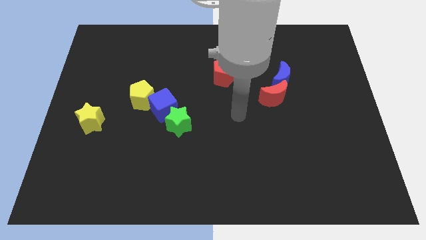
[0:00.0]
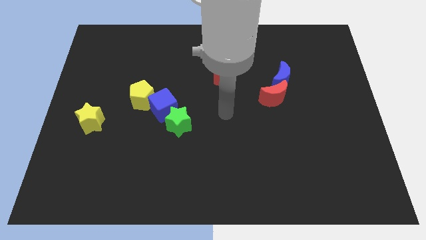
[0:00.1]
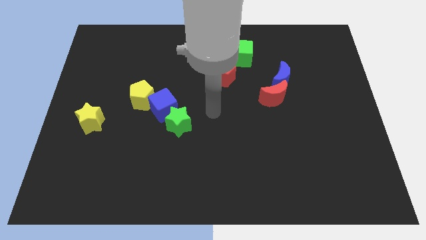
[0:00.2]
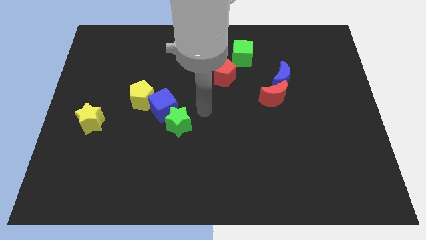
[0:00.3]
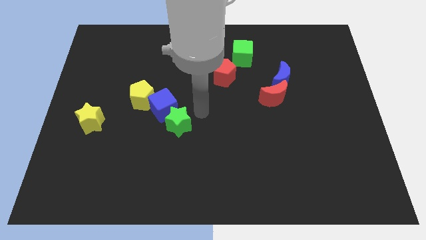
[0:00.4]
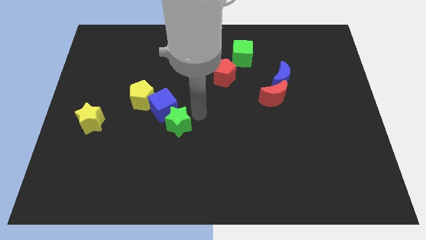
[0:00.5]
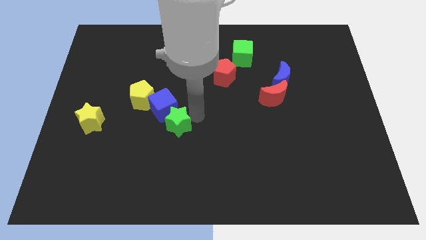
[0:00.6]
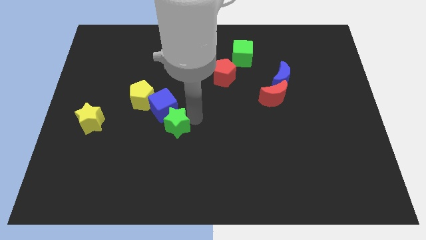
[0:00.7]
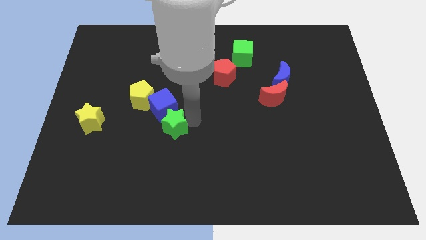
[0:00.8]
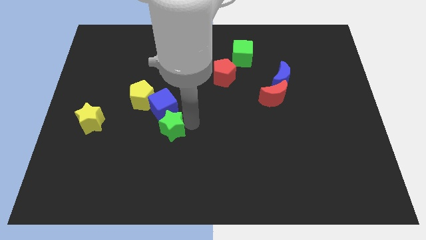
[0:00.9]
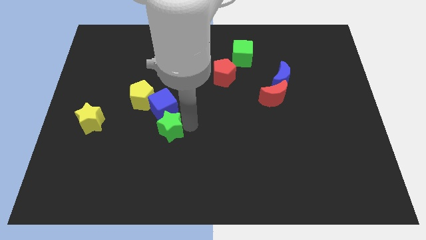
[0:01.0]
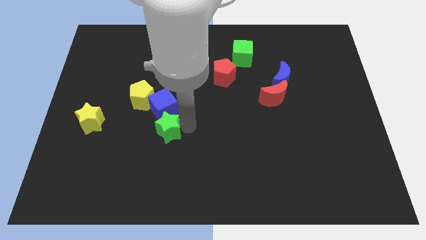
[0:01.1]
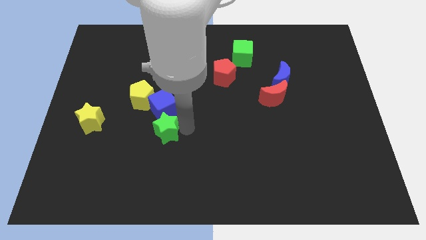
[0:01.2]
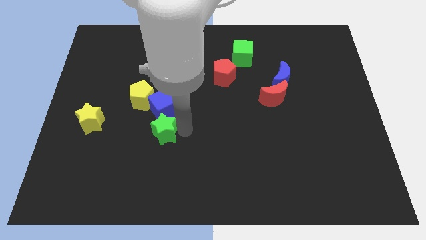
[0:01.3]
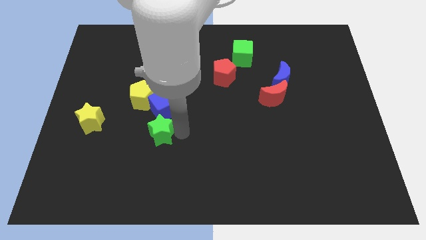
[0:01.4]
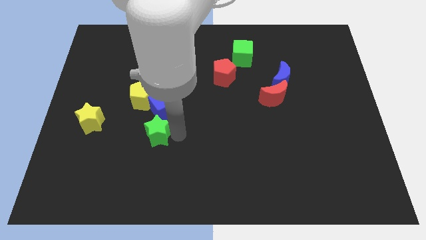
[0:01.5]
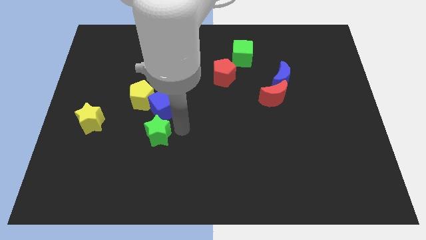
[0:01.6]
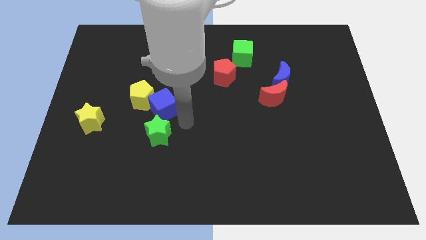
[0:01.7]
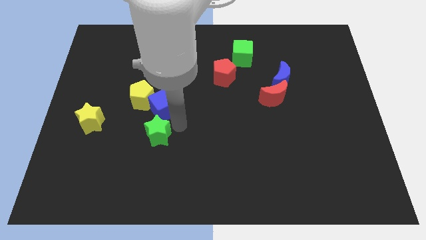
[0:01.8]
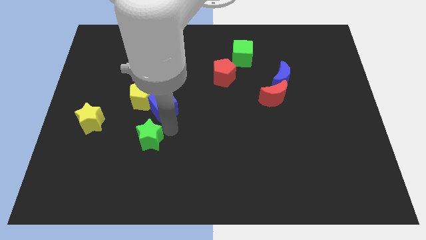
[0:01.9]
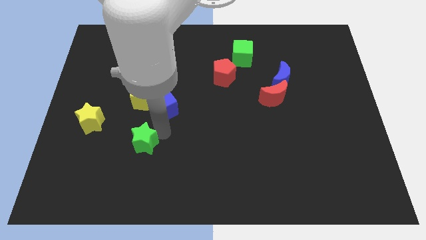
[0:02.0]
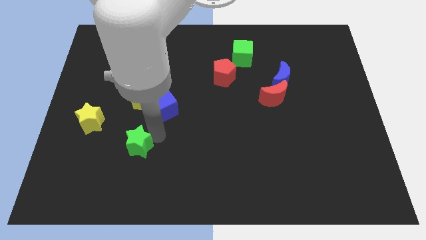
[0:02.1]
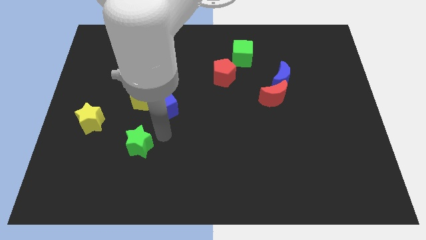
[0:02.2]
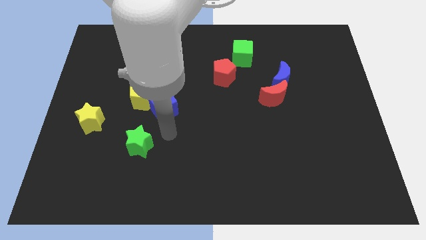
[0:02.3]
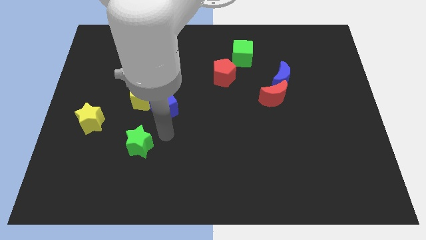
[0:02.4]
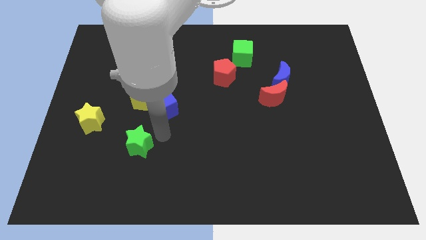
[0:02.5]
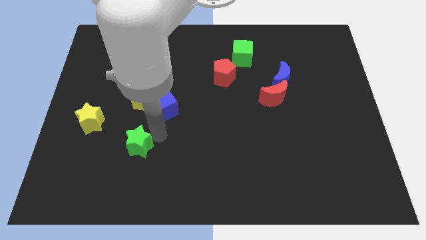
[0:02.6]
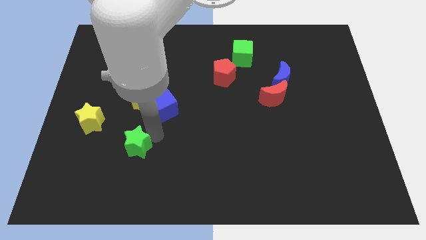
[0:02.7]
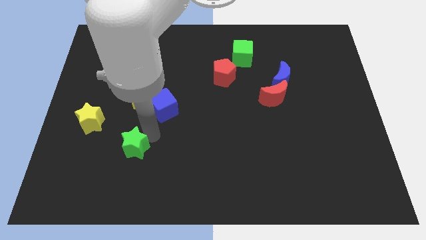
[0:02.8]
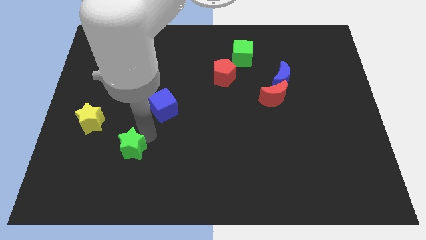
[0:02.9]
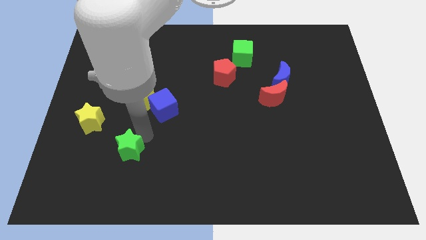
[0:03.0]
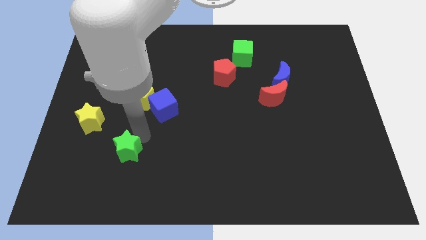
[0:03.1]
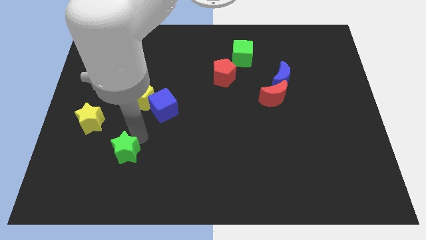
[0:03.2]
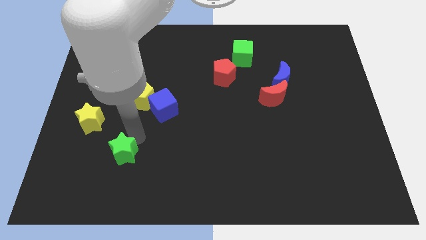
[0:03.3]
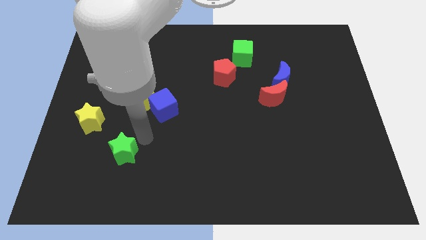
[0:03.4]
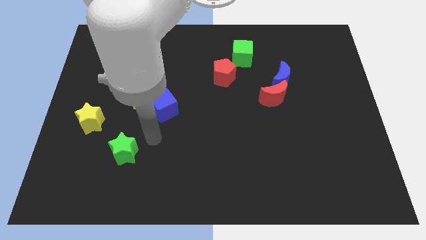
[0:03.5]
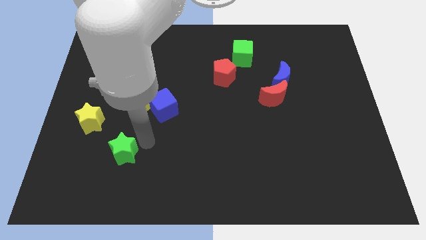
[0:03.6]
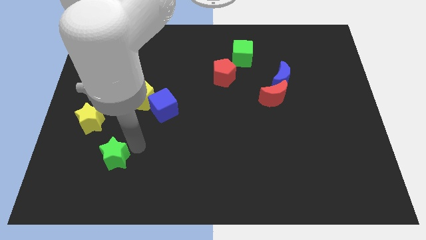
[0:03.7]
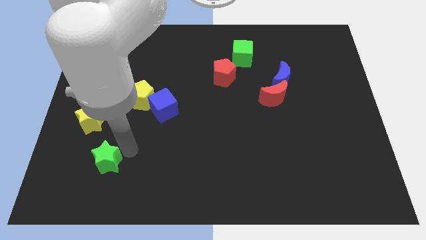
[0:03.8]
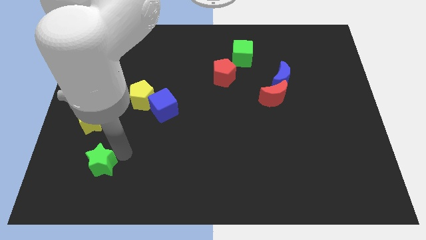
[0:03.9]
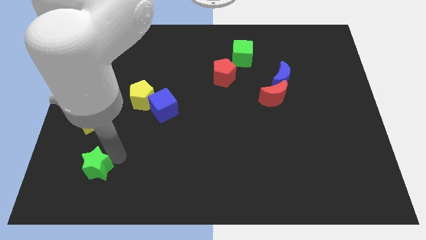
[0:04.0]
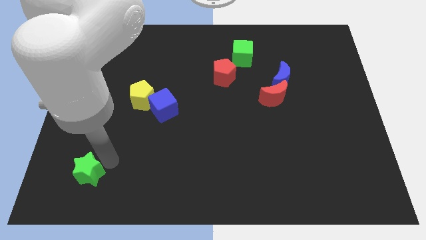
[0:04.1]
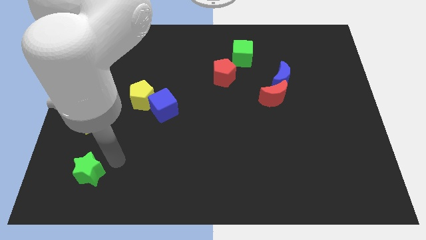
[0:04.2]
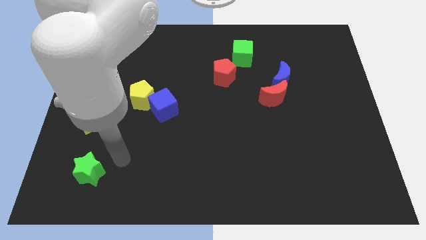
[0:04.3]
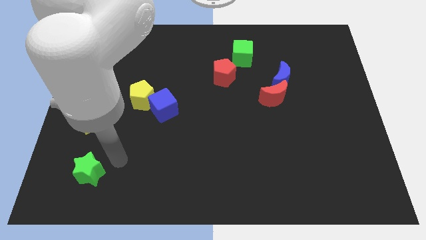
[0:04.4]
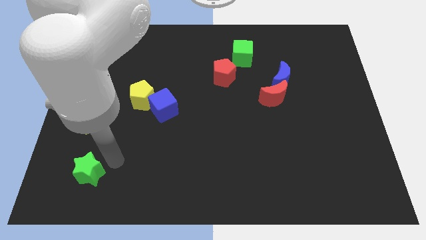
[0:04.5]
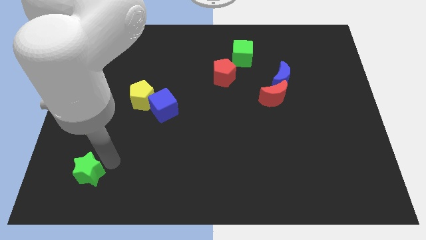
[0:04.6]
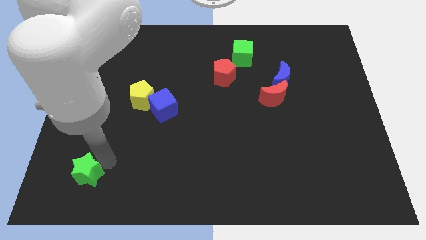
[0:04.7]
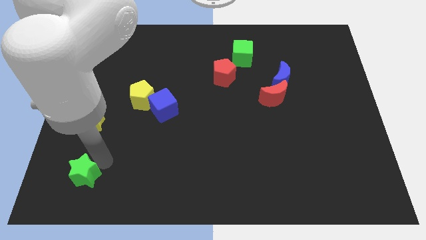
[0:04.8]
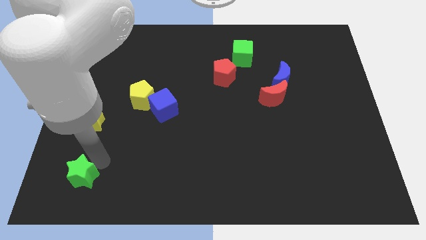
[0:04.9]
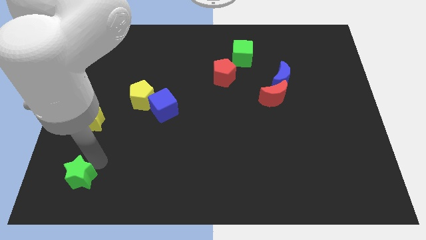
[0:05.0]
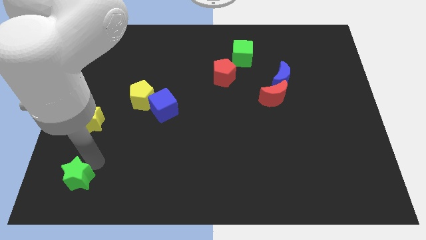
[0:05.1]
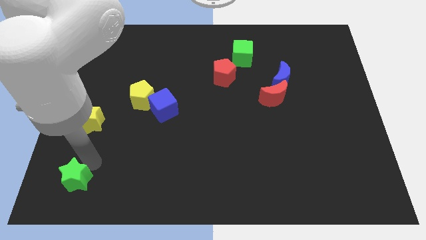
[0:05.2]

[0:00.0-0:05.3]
move the green star to the bottom left corner
